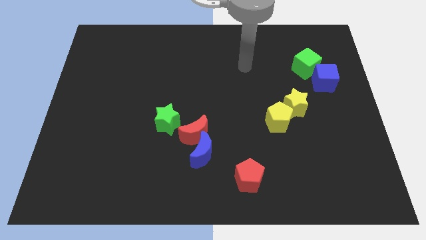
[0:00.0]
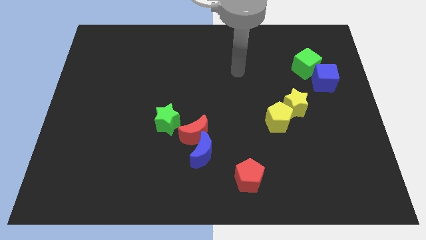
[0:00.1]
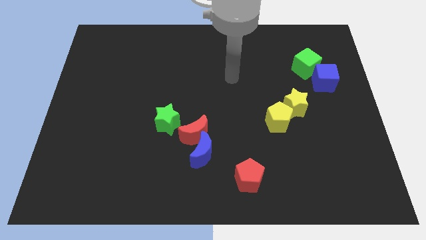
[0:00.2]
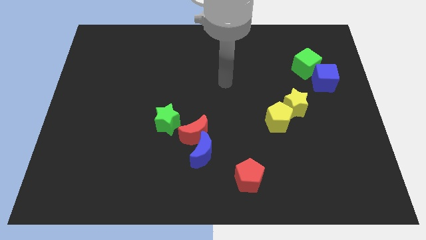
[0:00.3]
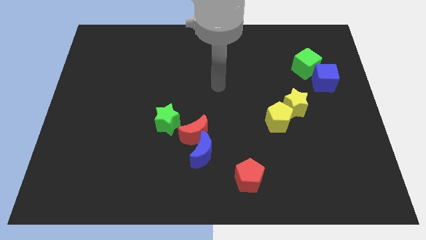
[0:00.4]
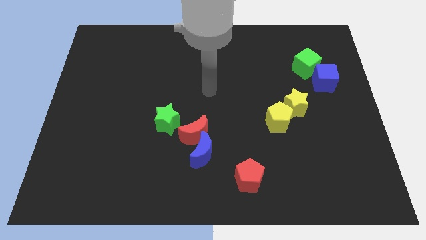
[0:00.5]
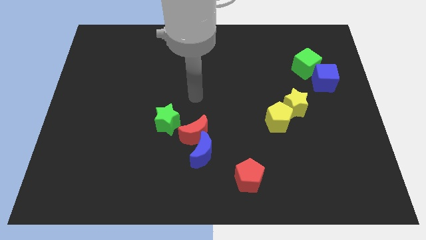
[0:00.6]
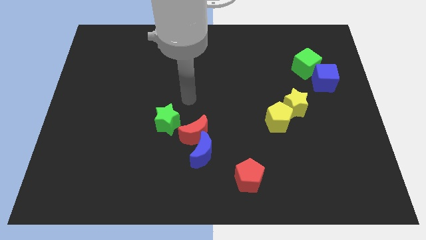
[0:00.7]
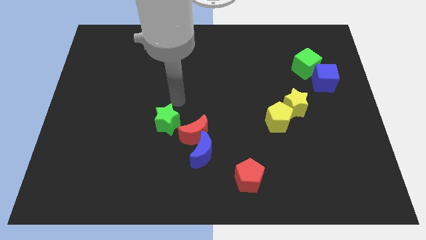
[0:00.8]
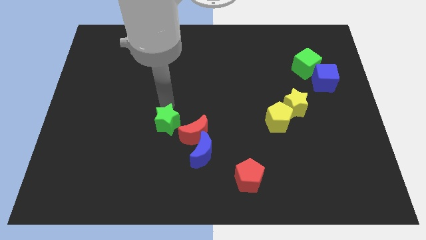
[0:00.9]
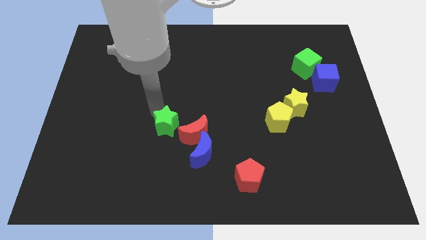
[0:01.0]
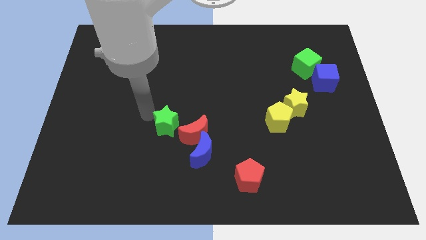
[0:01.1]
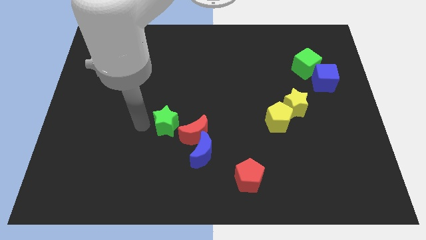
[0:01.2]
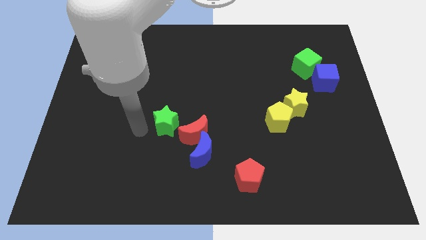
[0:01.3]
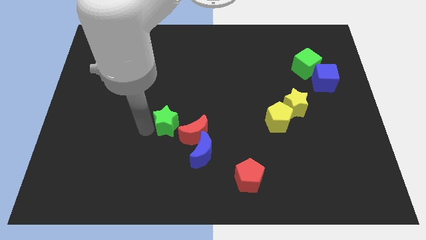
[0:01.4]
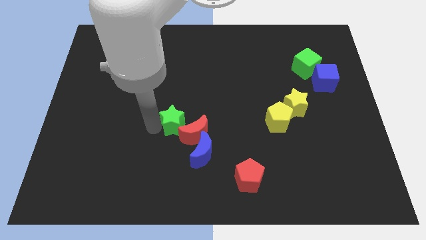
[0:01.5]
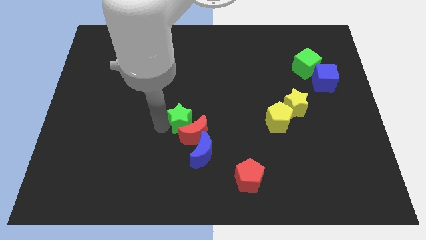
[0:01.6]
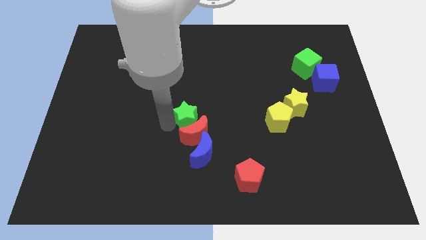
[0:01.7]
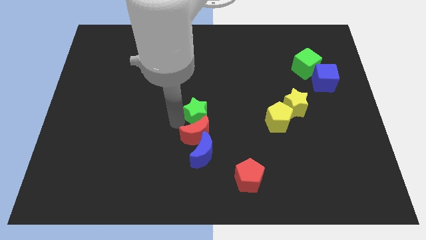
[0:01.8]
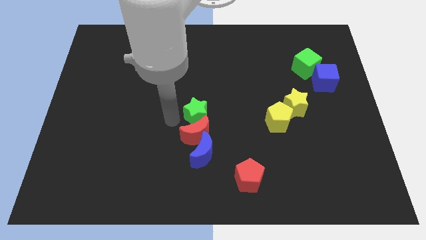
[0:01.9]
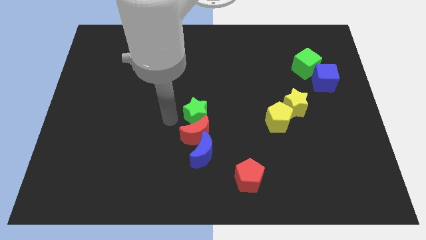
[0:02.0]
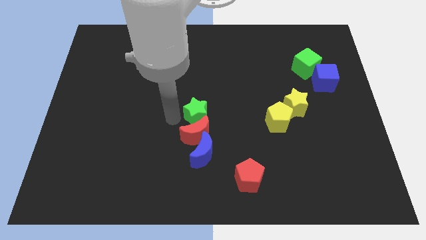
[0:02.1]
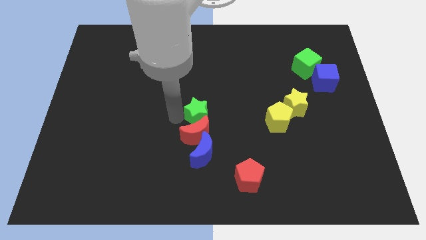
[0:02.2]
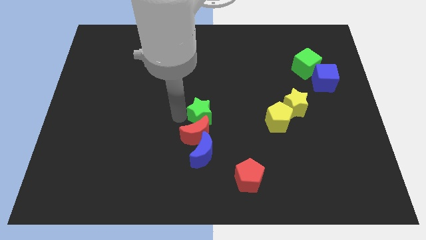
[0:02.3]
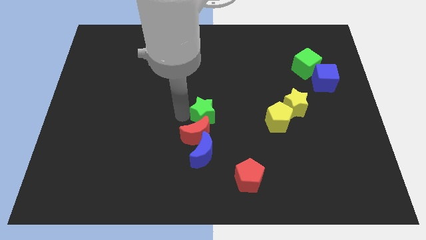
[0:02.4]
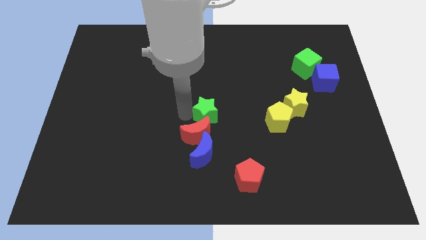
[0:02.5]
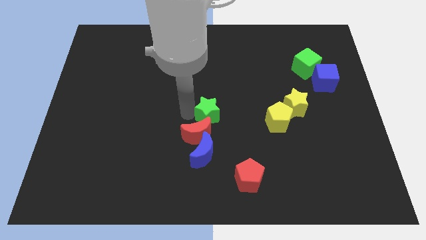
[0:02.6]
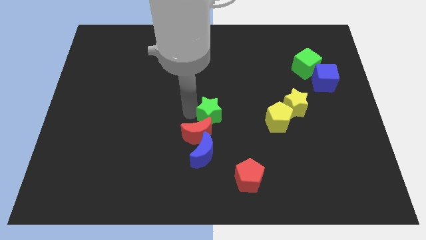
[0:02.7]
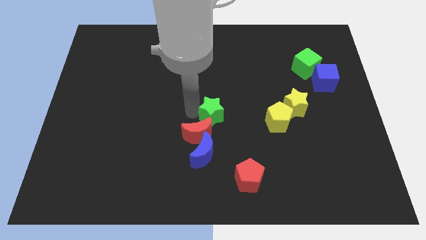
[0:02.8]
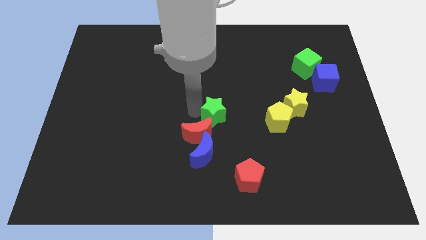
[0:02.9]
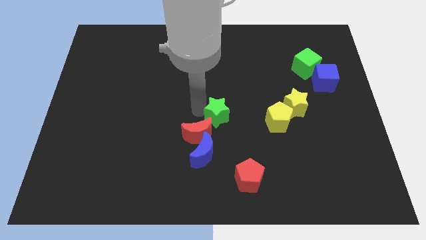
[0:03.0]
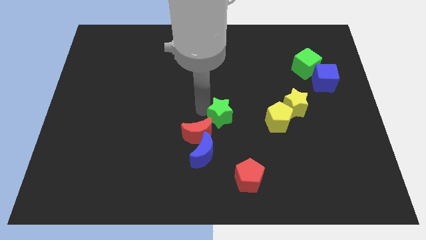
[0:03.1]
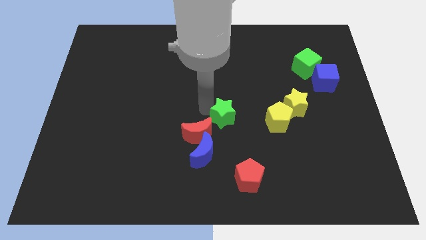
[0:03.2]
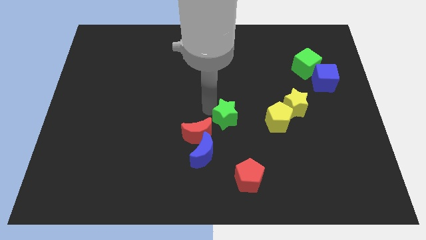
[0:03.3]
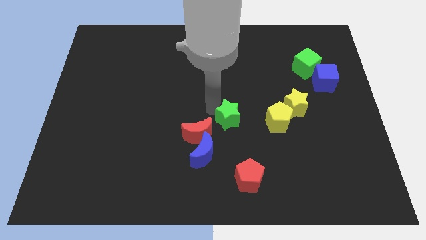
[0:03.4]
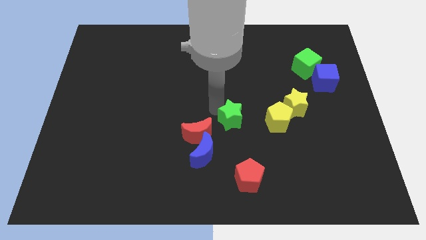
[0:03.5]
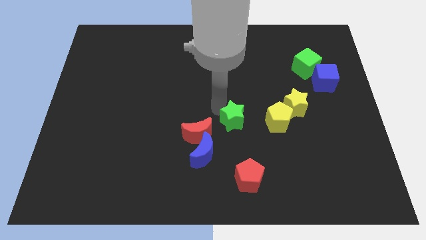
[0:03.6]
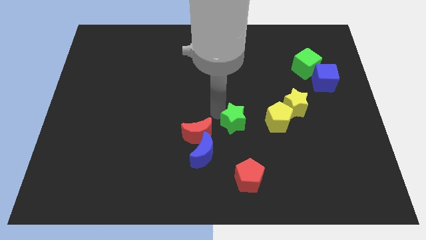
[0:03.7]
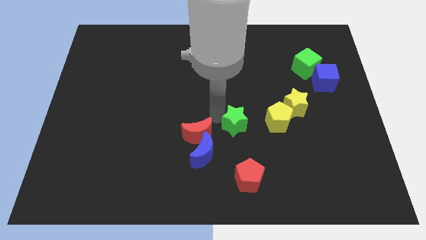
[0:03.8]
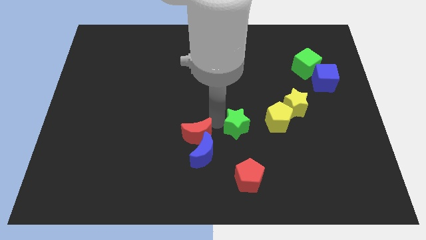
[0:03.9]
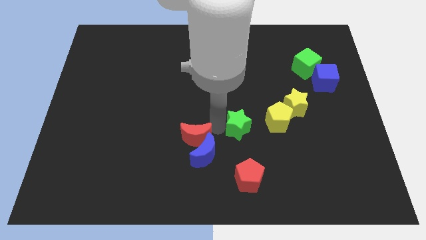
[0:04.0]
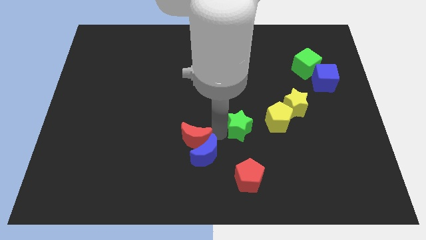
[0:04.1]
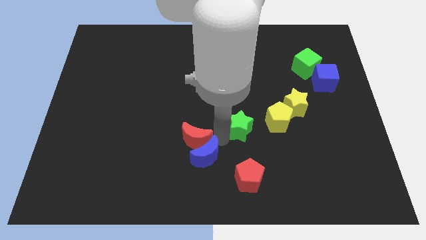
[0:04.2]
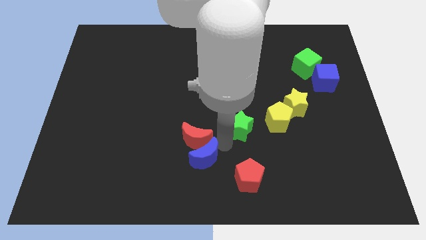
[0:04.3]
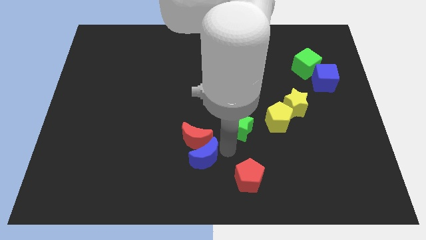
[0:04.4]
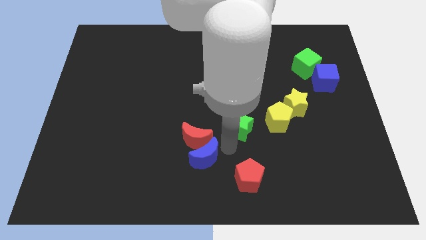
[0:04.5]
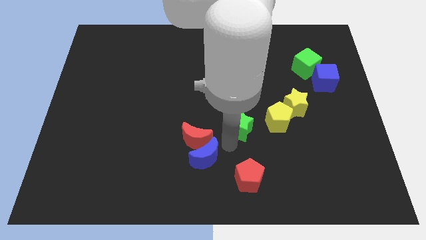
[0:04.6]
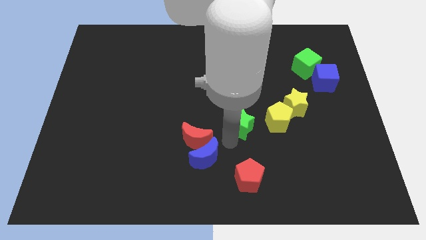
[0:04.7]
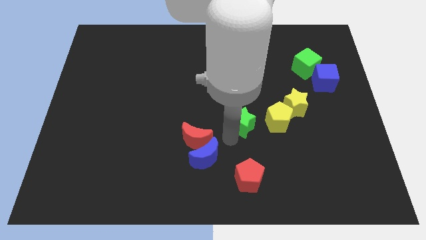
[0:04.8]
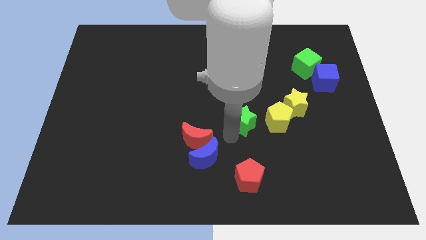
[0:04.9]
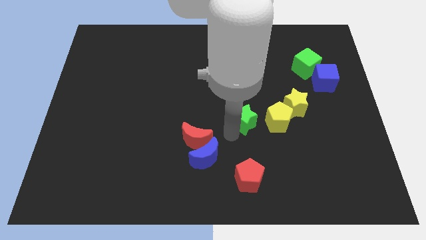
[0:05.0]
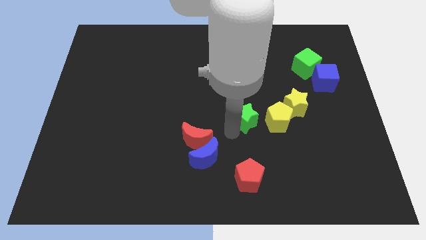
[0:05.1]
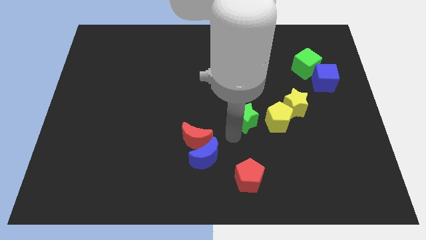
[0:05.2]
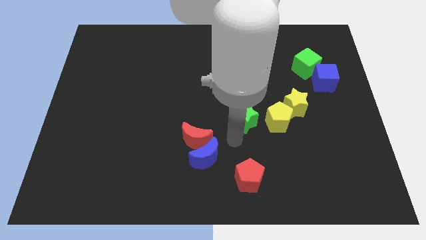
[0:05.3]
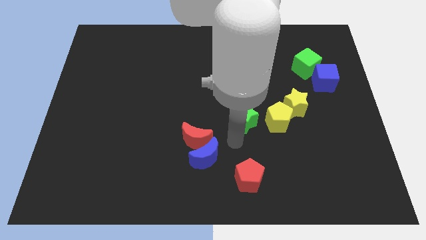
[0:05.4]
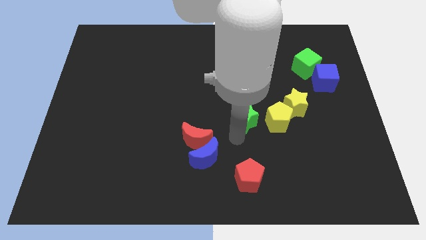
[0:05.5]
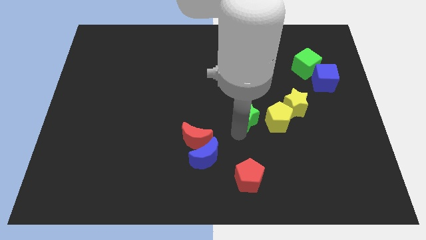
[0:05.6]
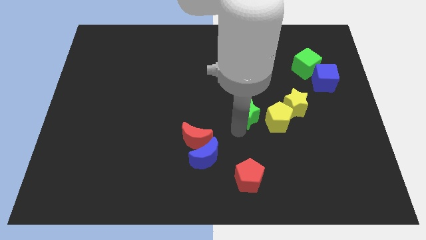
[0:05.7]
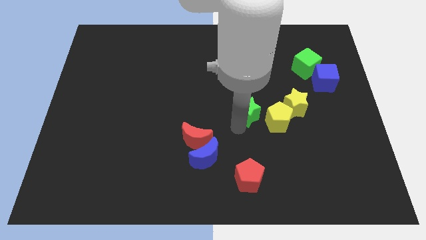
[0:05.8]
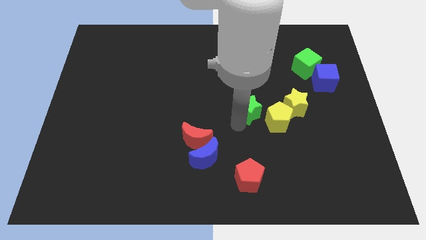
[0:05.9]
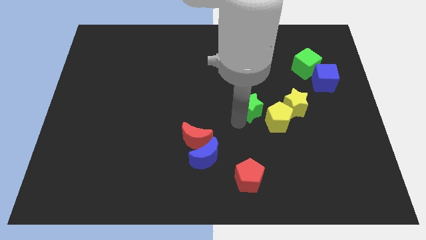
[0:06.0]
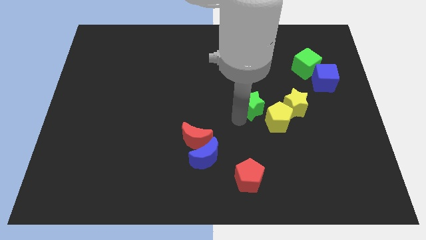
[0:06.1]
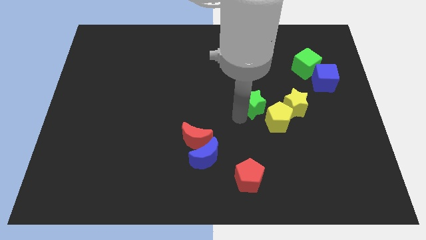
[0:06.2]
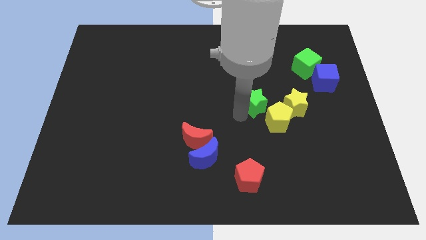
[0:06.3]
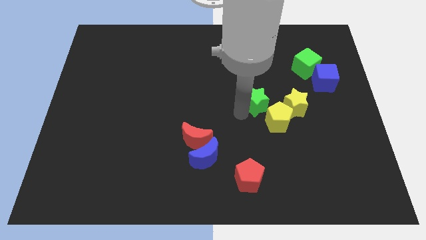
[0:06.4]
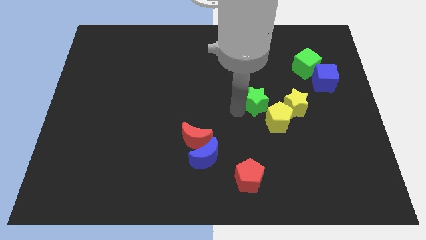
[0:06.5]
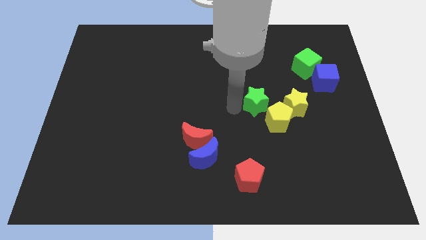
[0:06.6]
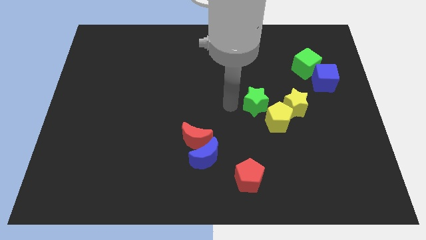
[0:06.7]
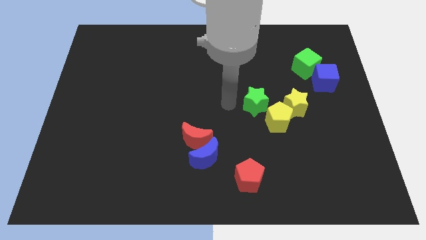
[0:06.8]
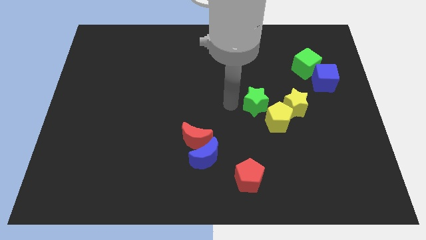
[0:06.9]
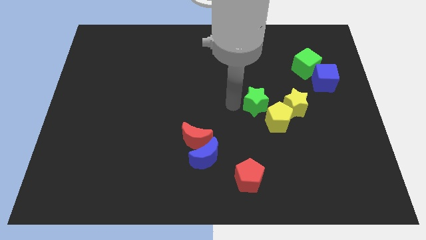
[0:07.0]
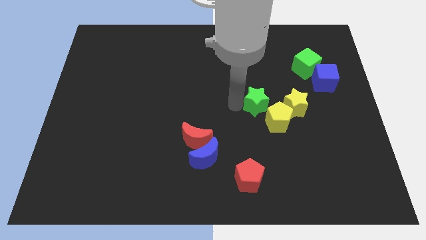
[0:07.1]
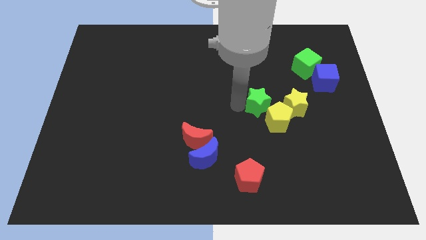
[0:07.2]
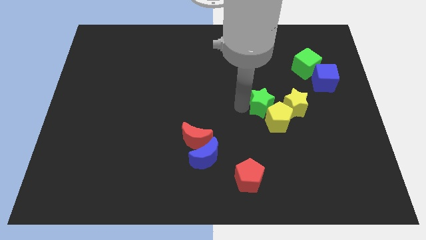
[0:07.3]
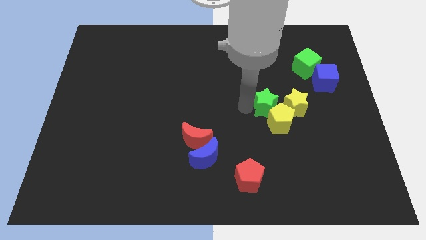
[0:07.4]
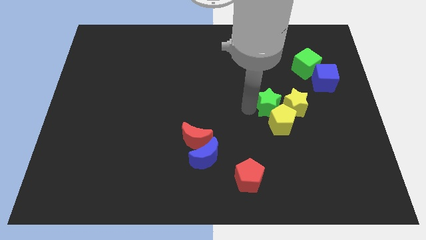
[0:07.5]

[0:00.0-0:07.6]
put the green star towards the yellow star
